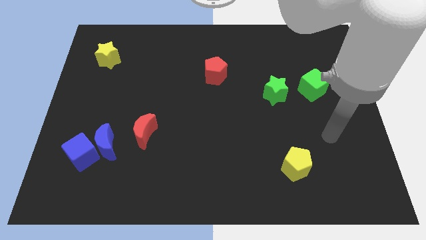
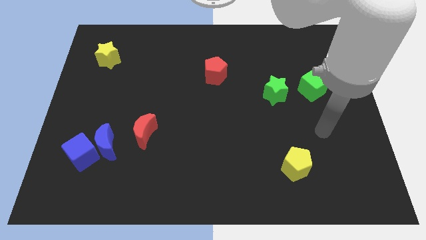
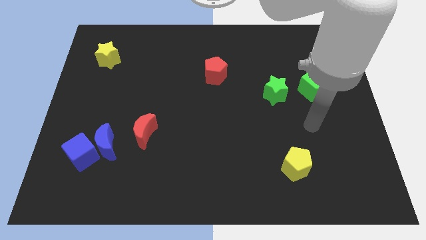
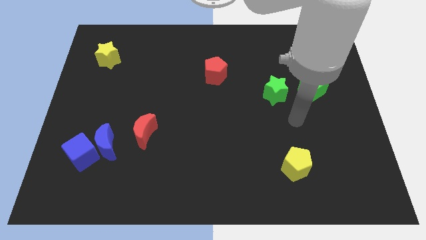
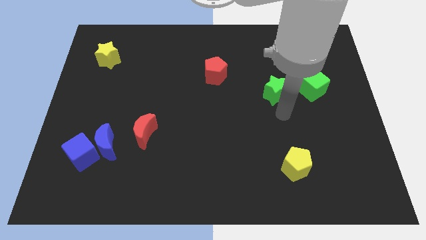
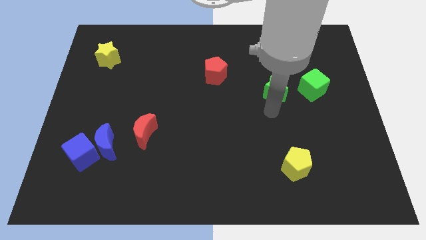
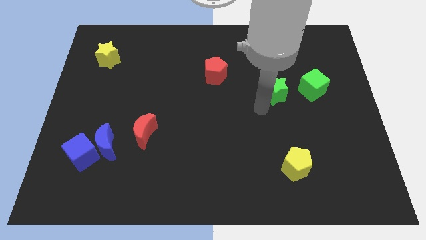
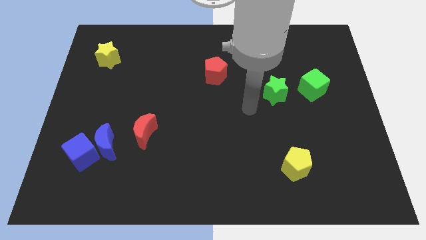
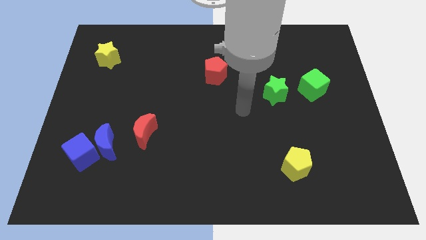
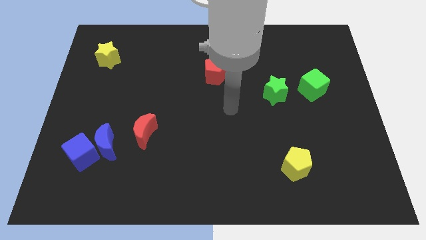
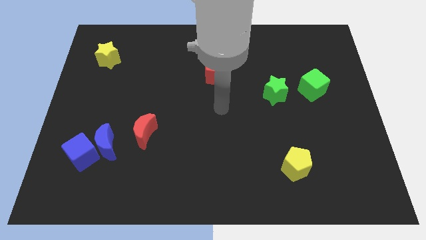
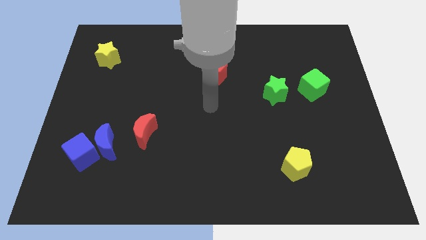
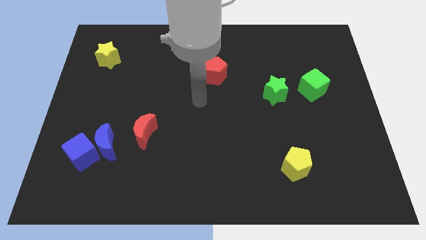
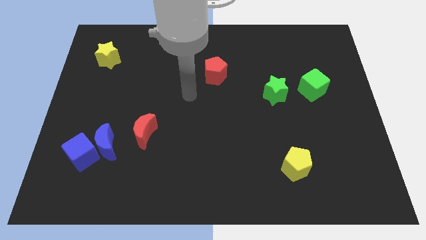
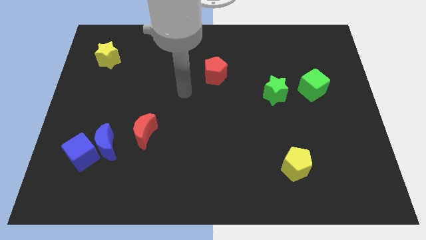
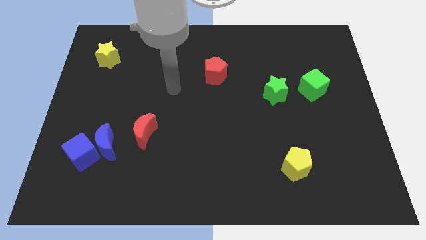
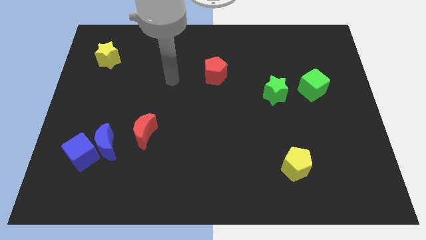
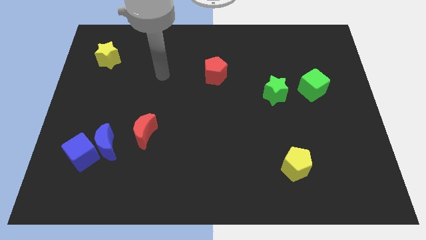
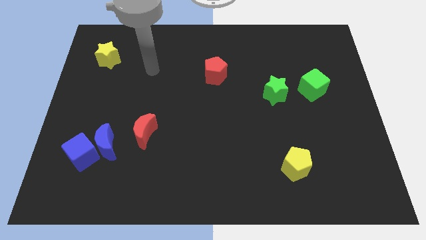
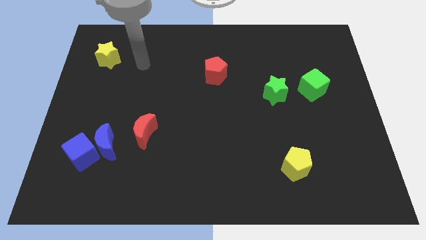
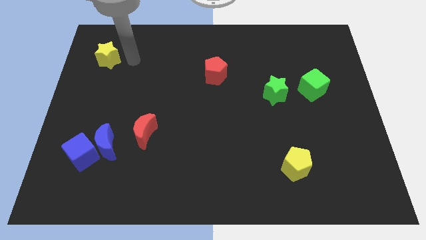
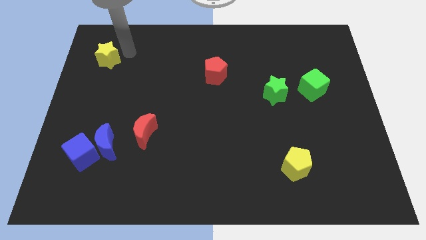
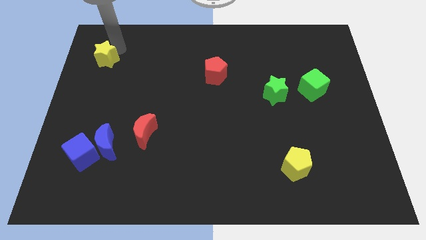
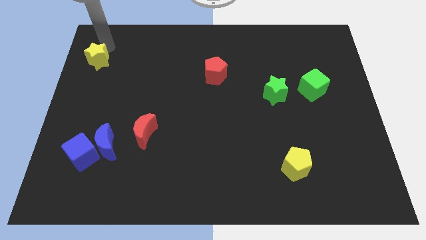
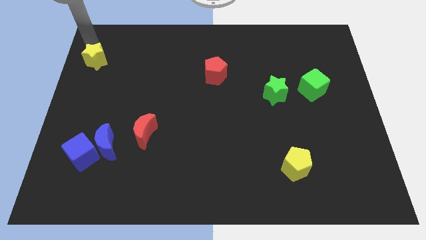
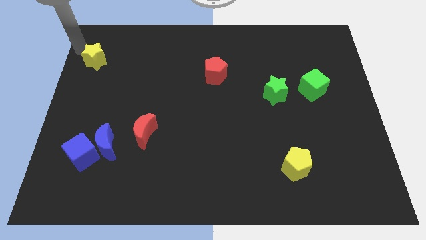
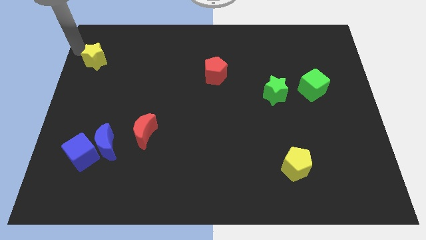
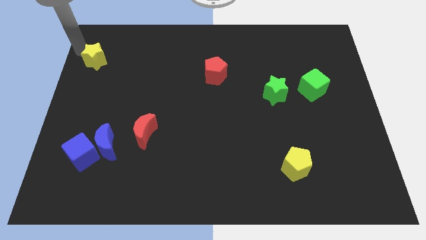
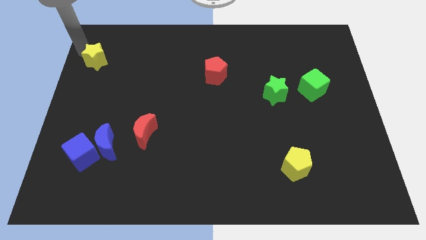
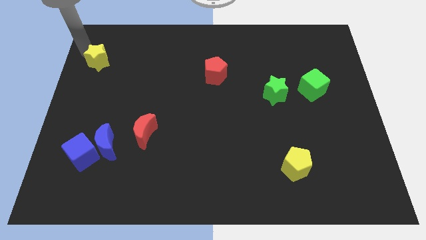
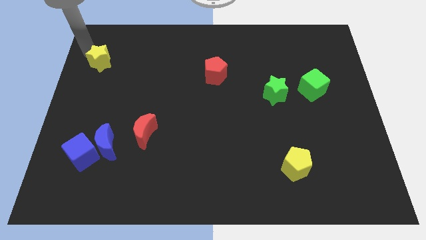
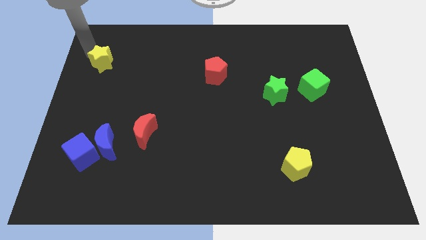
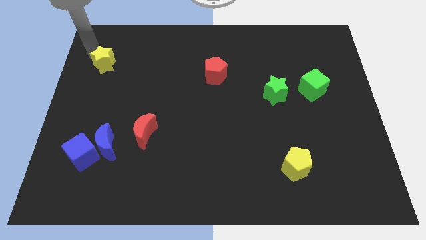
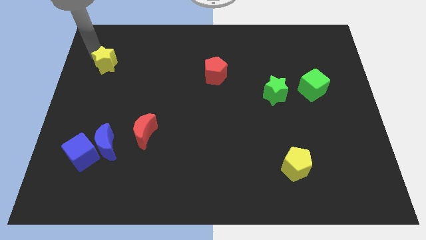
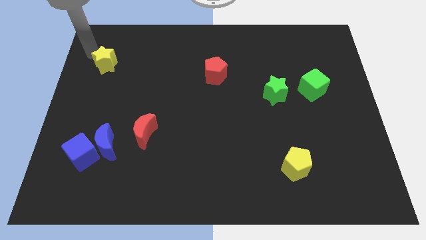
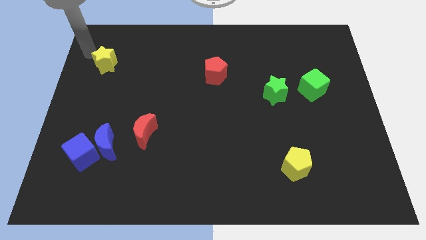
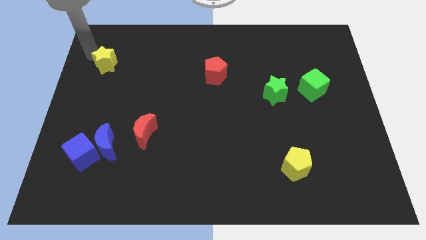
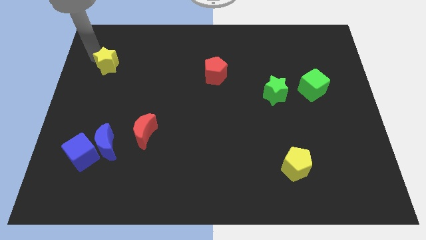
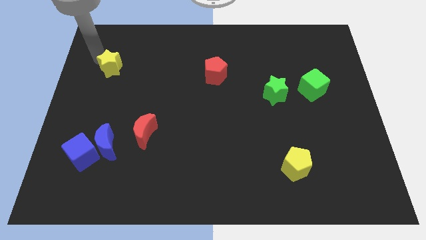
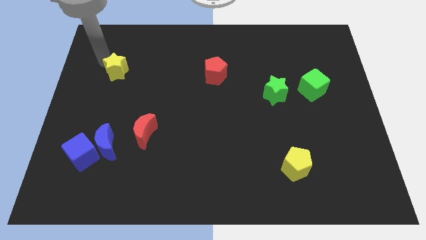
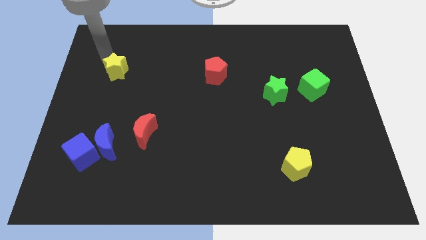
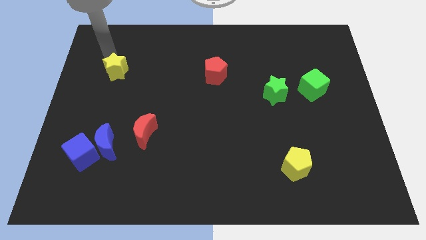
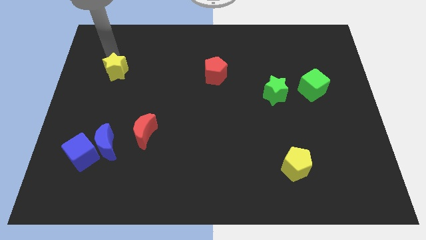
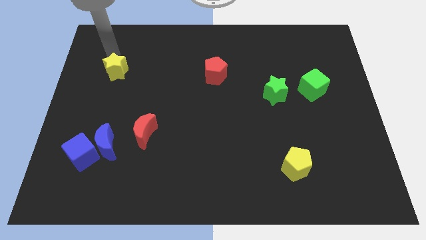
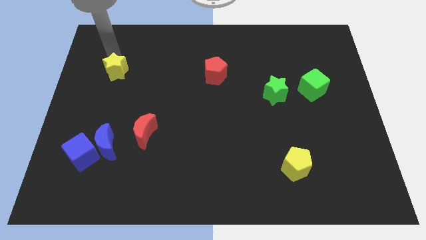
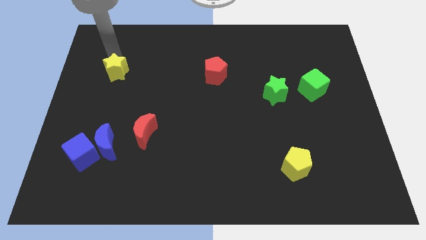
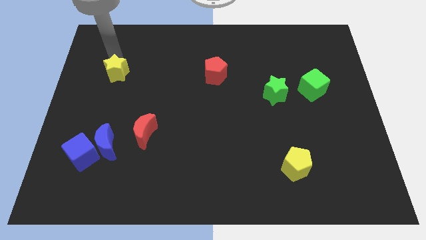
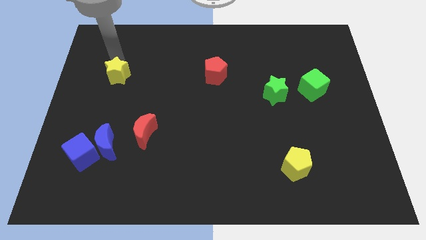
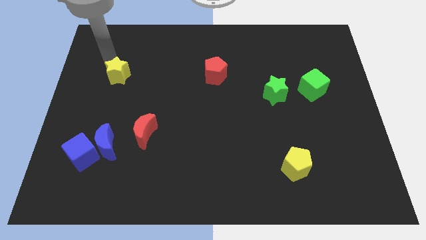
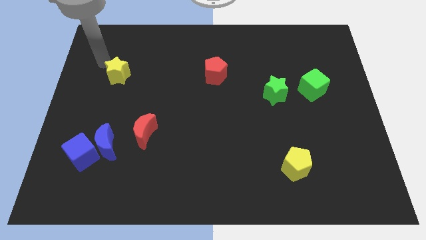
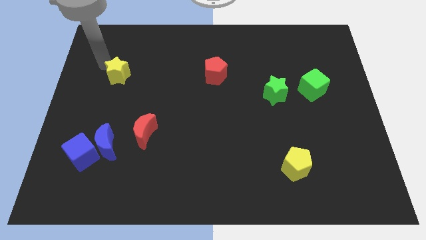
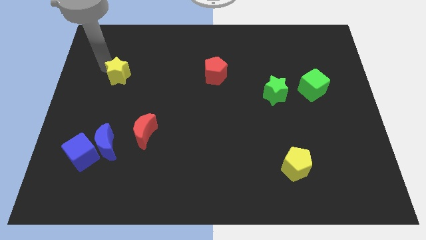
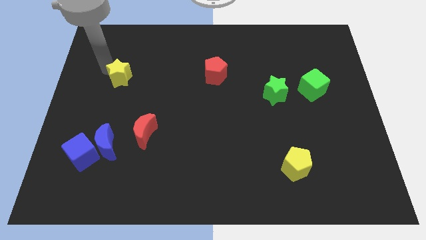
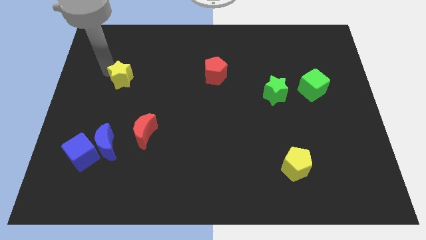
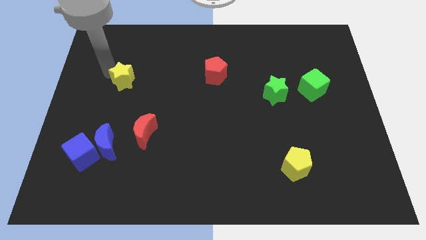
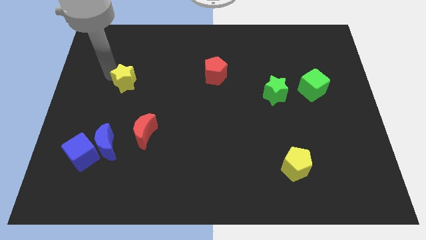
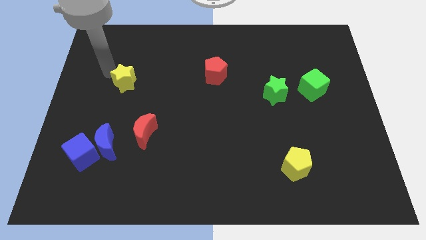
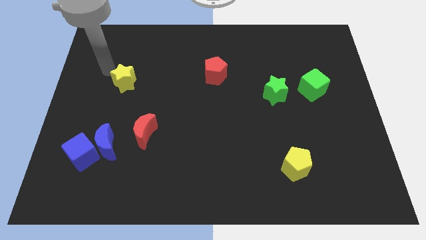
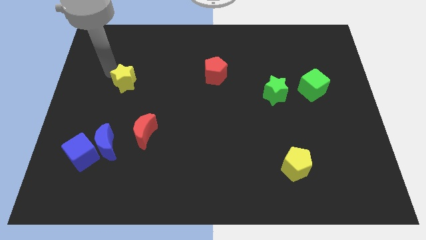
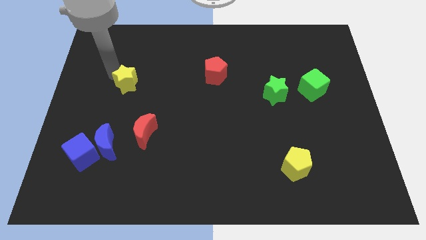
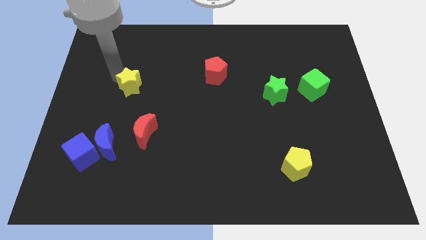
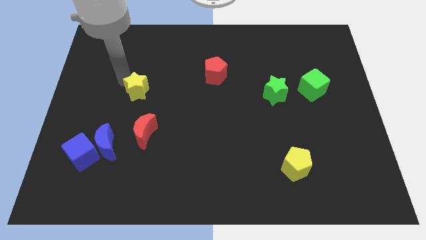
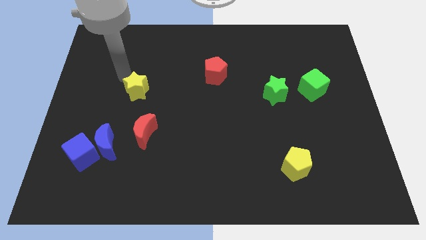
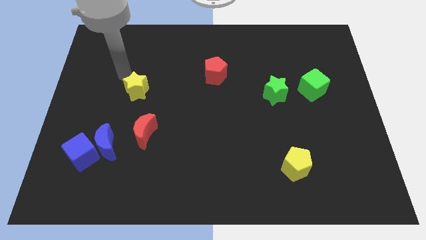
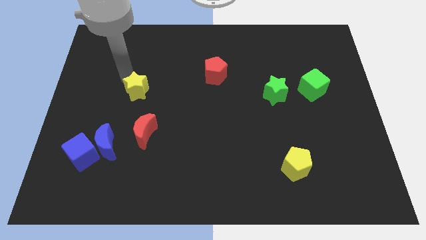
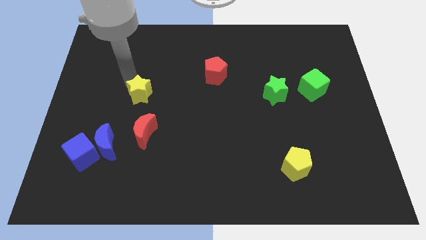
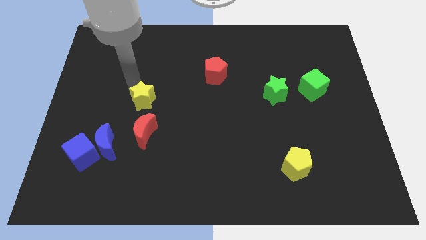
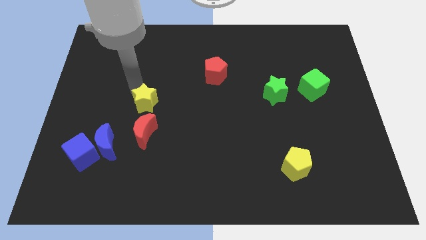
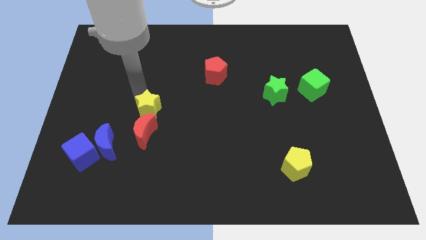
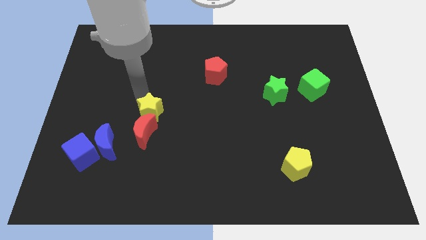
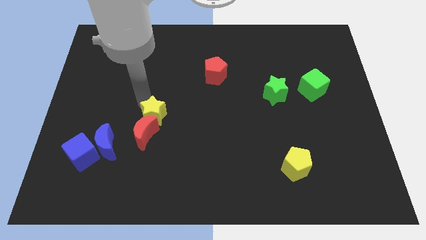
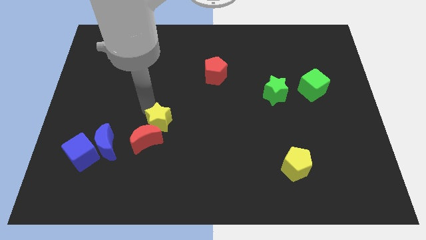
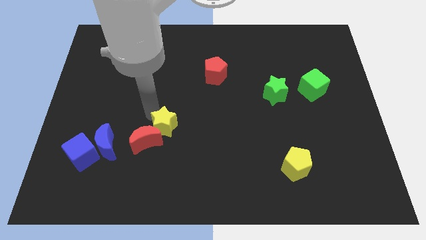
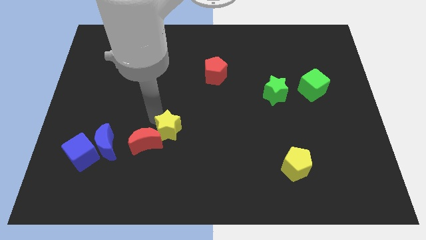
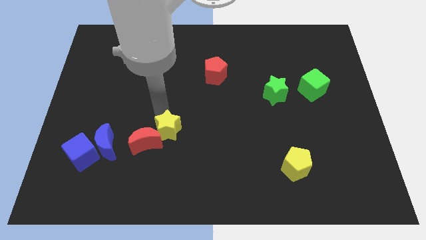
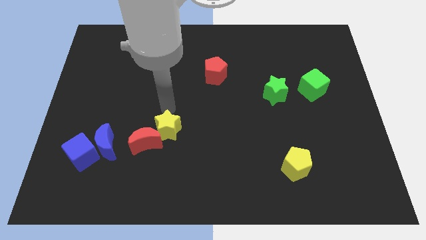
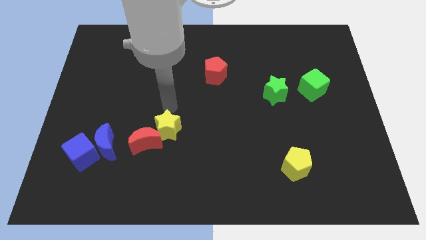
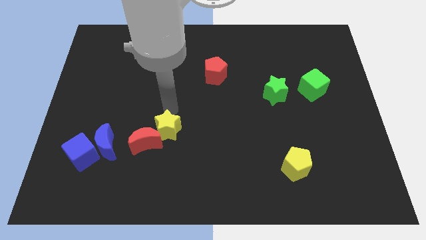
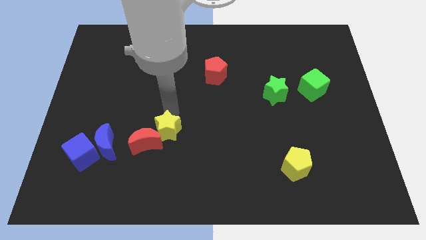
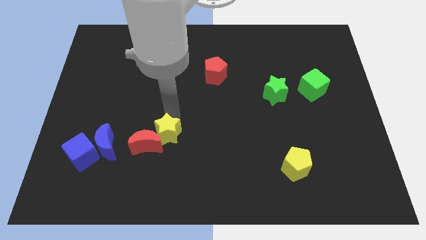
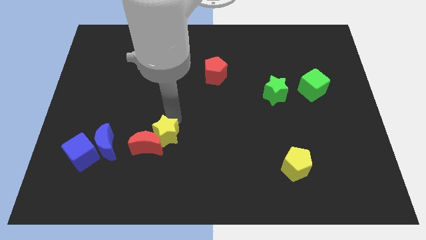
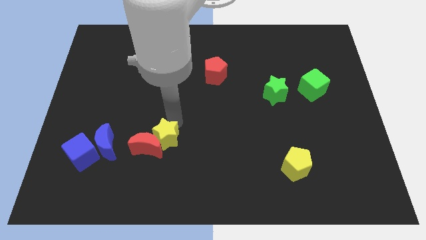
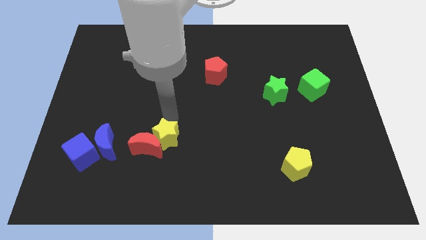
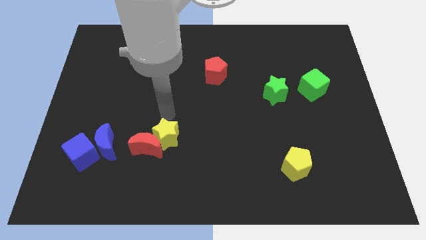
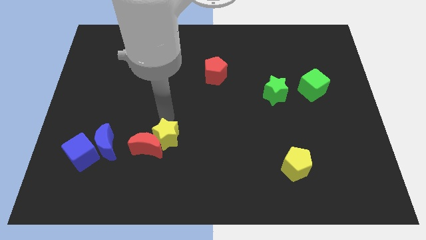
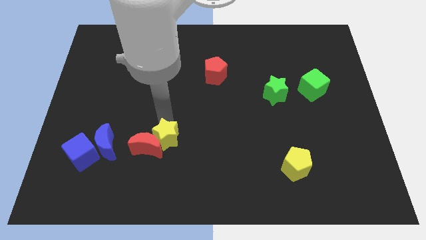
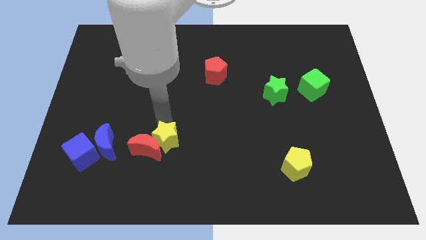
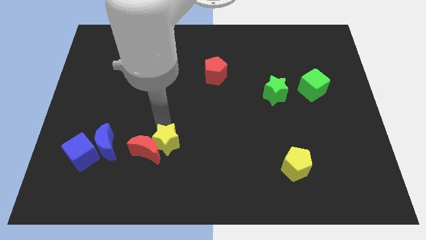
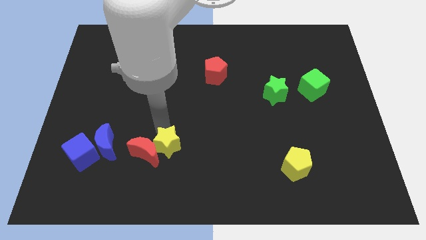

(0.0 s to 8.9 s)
push the yellow star diagonally down and to the right of the red moon
